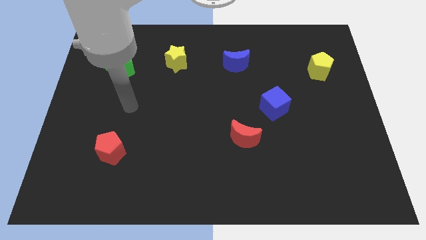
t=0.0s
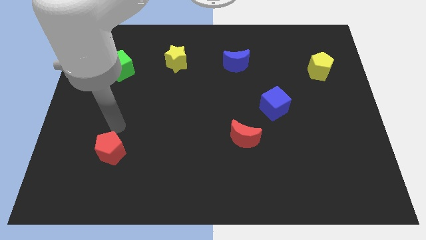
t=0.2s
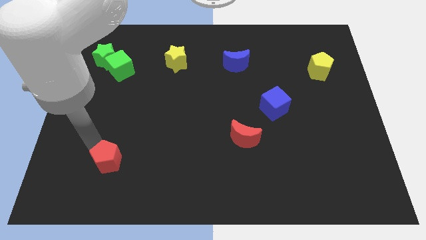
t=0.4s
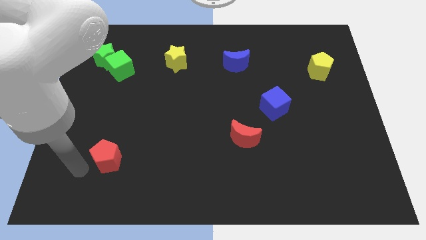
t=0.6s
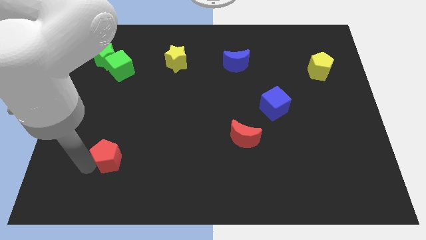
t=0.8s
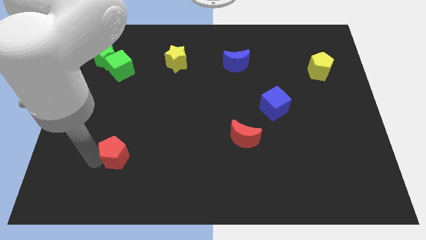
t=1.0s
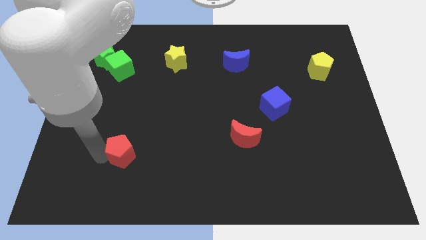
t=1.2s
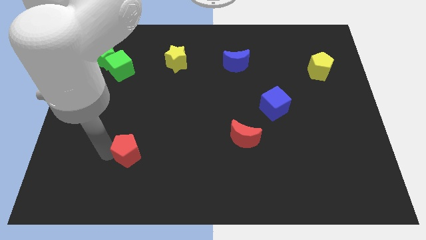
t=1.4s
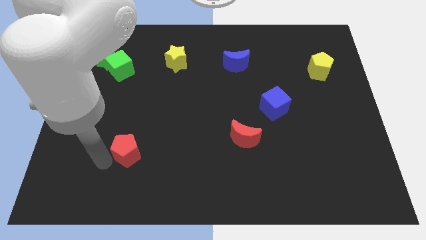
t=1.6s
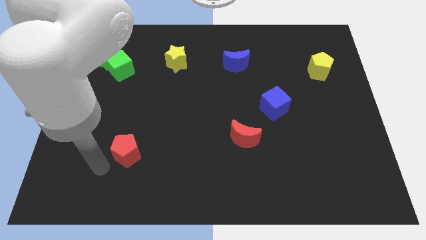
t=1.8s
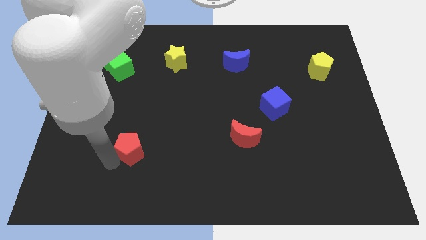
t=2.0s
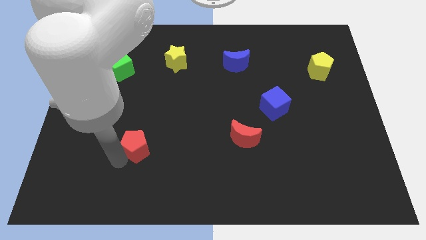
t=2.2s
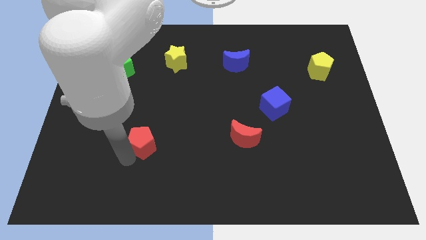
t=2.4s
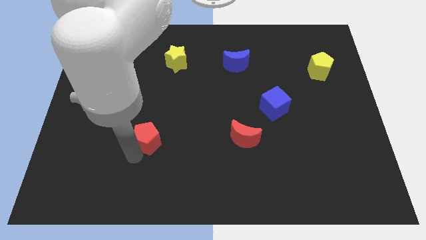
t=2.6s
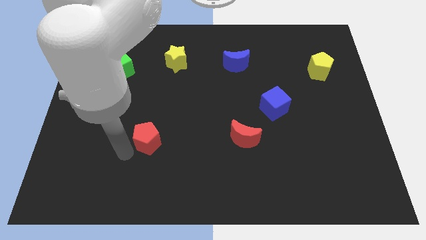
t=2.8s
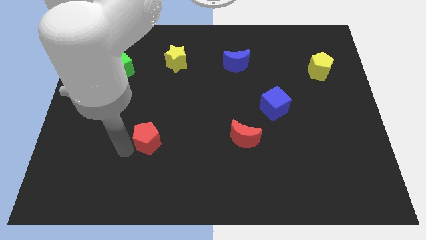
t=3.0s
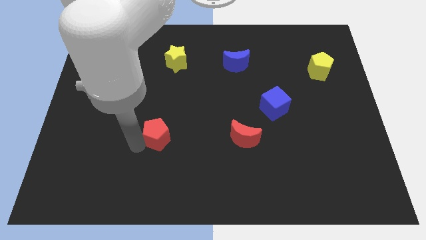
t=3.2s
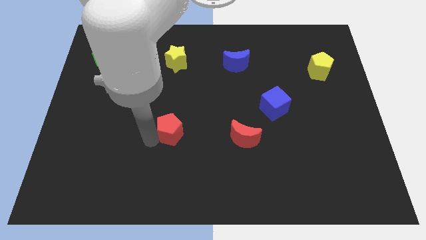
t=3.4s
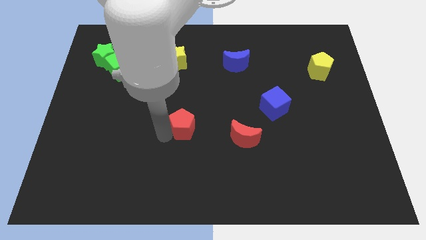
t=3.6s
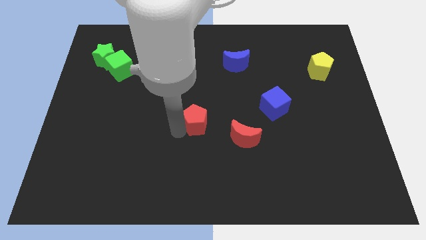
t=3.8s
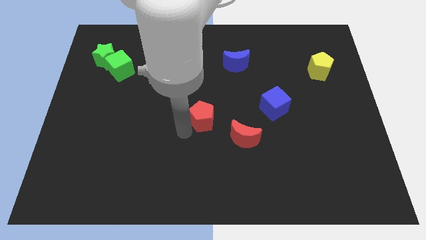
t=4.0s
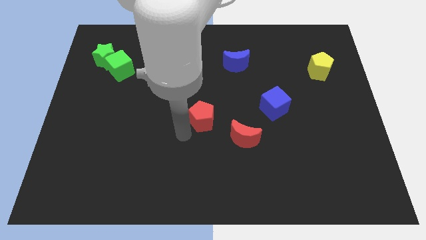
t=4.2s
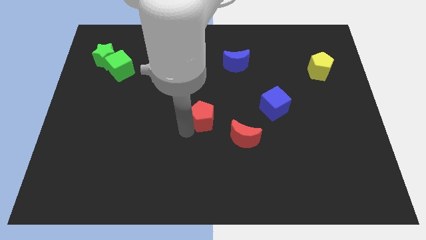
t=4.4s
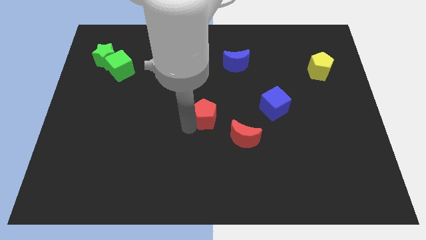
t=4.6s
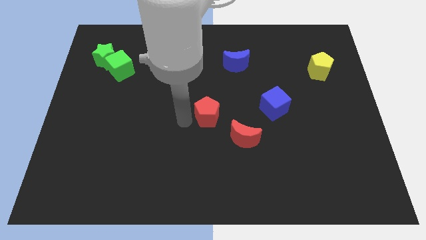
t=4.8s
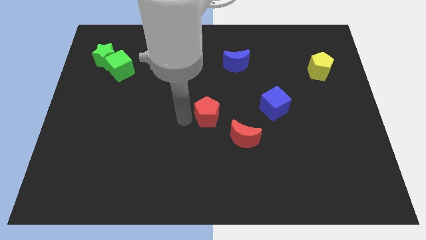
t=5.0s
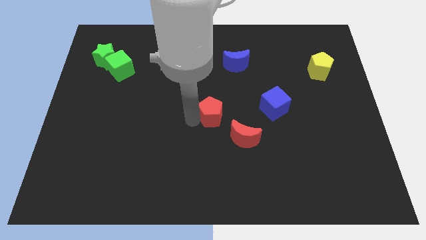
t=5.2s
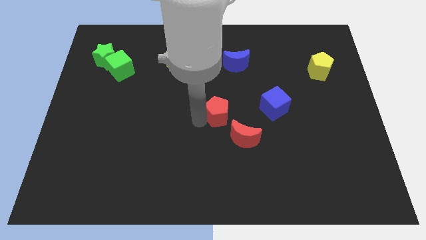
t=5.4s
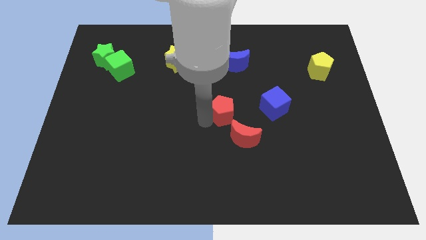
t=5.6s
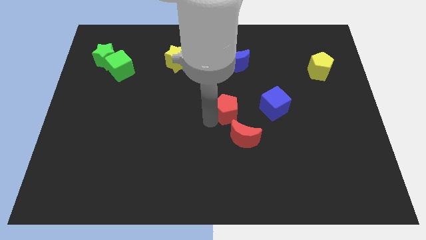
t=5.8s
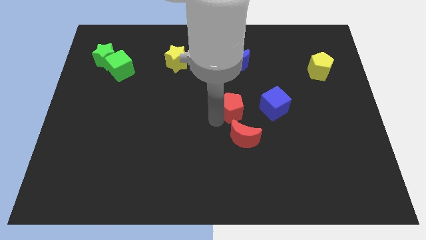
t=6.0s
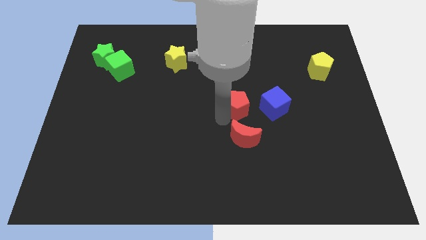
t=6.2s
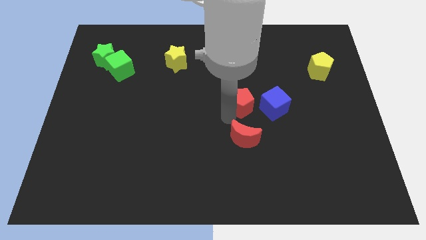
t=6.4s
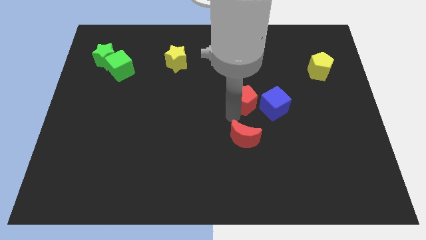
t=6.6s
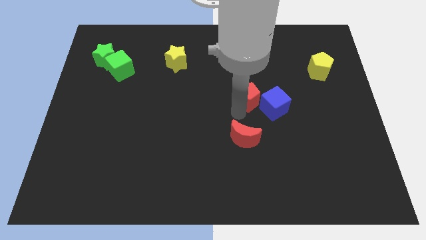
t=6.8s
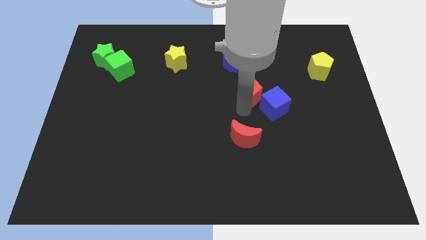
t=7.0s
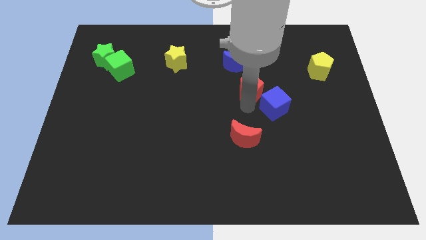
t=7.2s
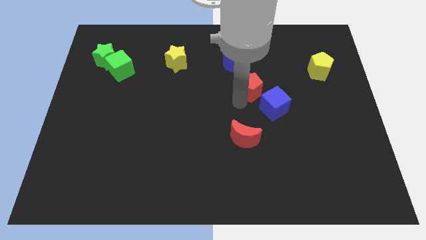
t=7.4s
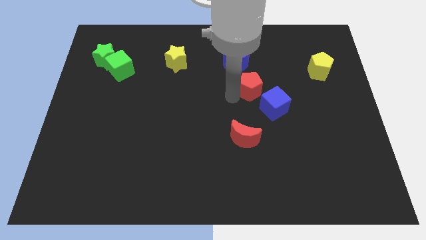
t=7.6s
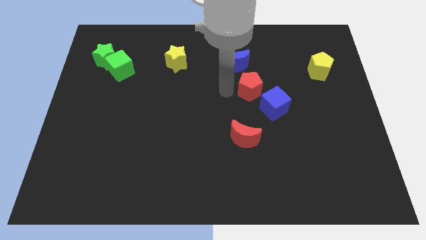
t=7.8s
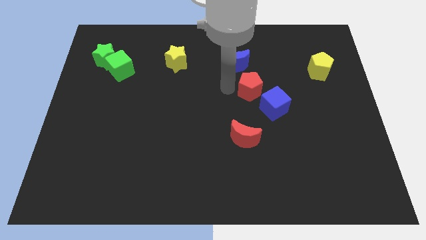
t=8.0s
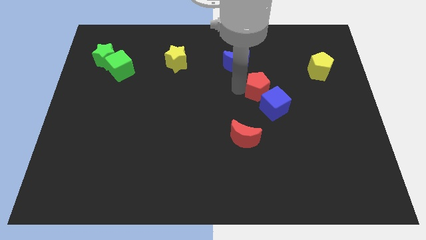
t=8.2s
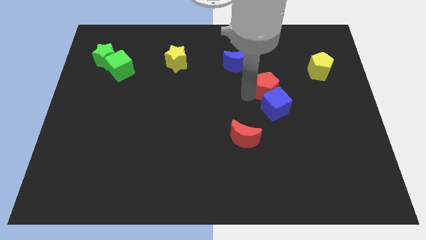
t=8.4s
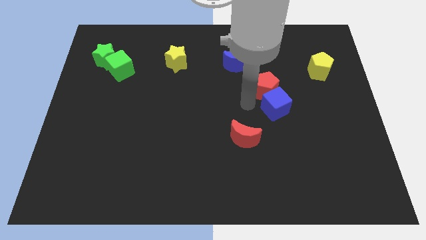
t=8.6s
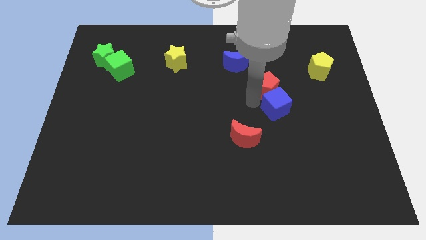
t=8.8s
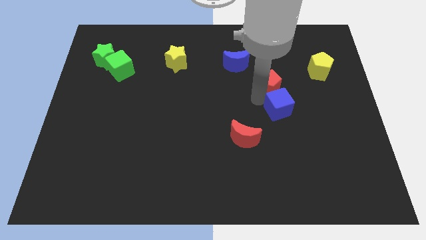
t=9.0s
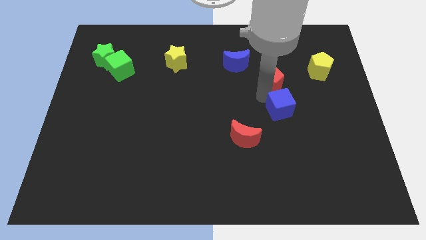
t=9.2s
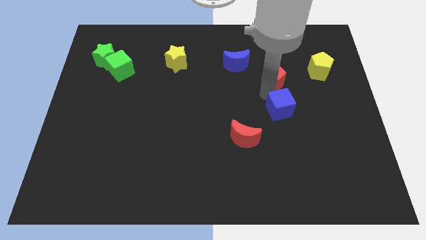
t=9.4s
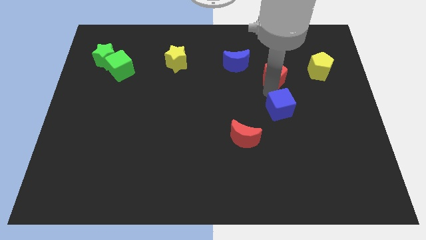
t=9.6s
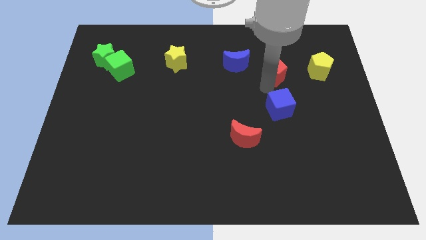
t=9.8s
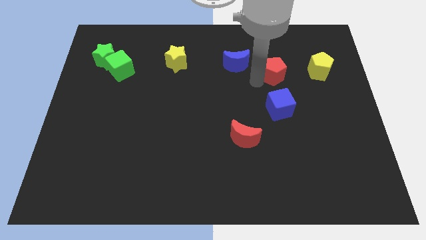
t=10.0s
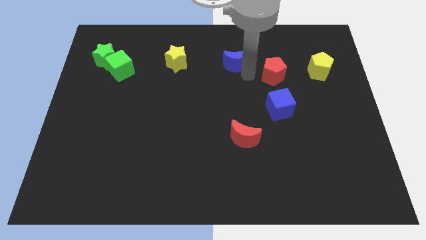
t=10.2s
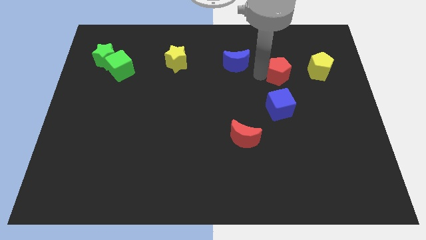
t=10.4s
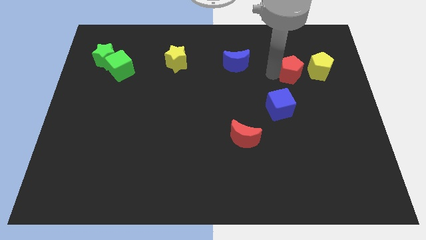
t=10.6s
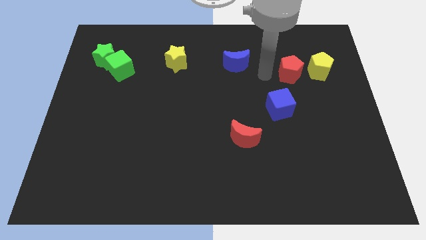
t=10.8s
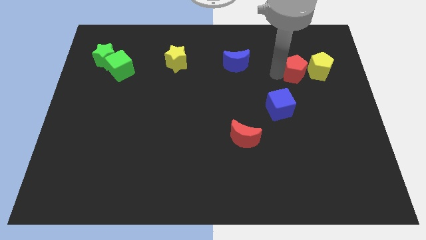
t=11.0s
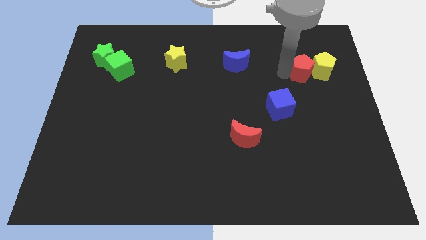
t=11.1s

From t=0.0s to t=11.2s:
move the red pentagon close to the yellow pentagon

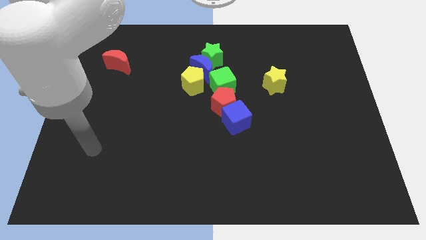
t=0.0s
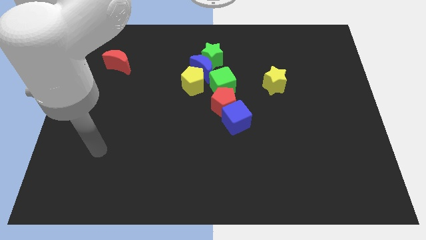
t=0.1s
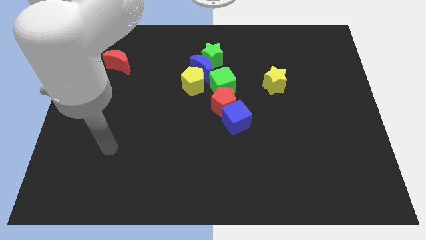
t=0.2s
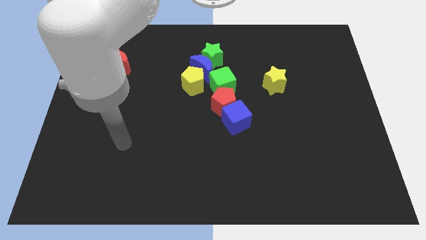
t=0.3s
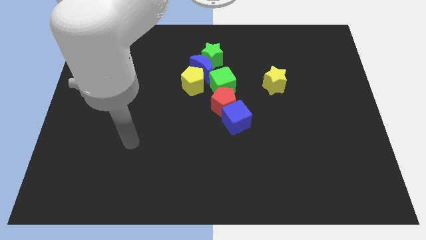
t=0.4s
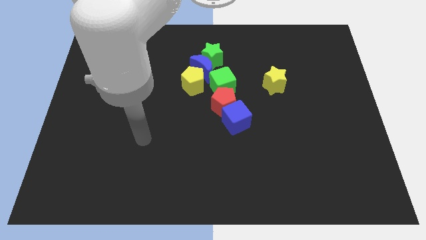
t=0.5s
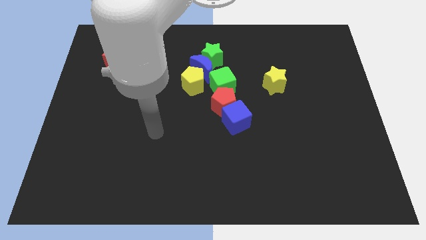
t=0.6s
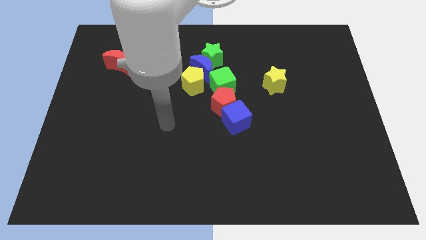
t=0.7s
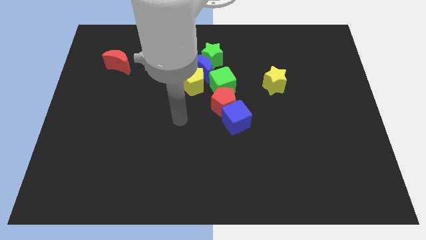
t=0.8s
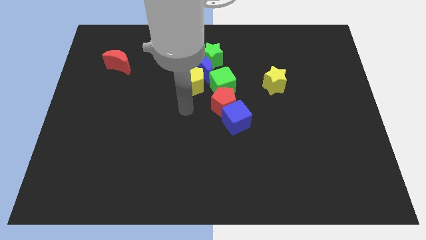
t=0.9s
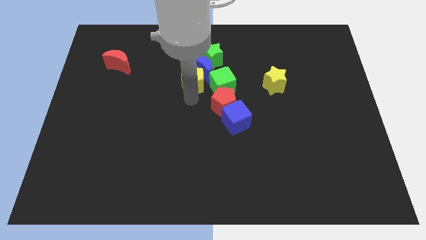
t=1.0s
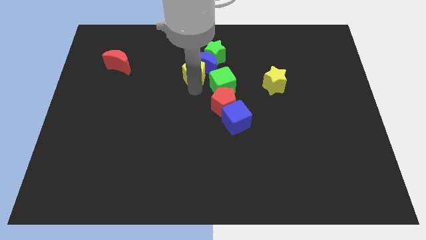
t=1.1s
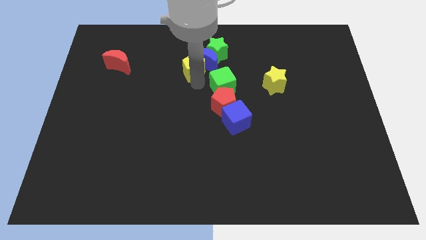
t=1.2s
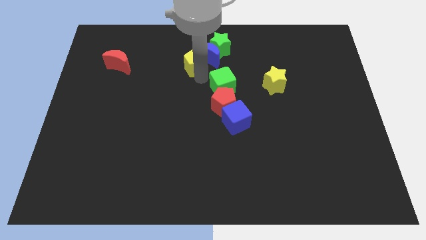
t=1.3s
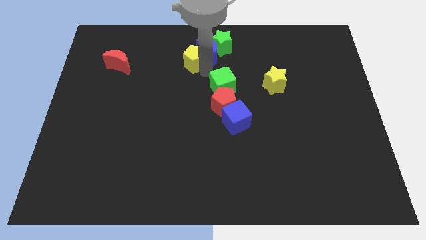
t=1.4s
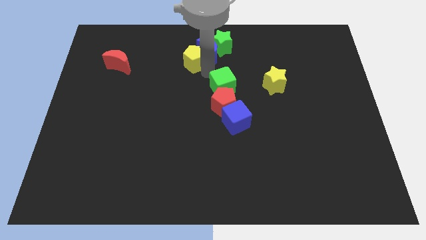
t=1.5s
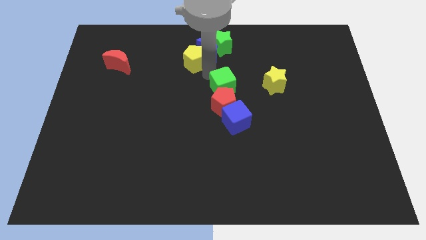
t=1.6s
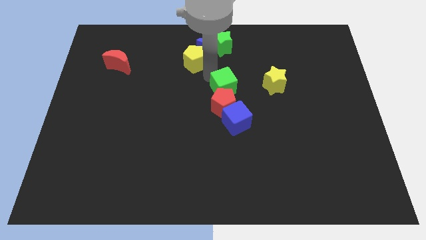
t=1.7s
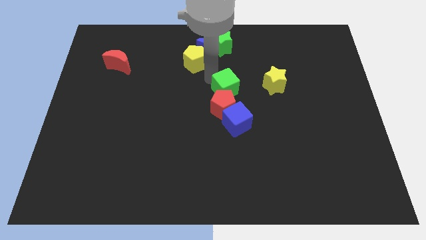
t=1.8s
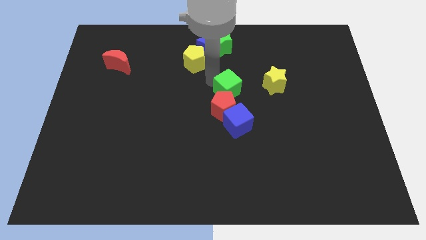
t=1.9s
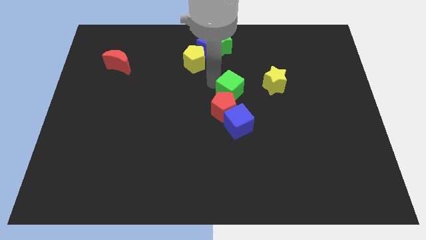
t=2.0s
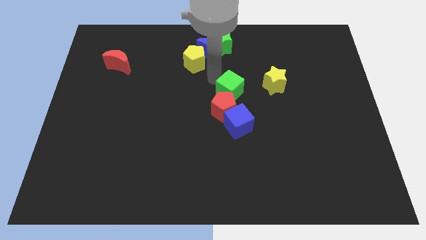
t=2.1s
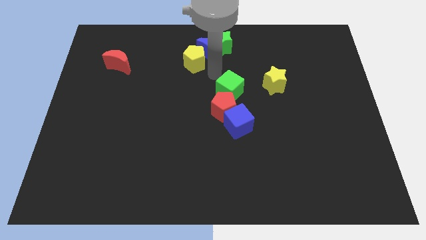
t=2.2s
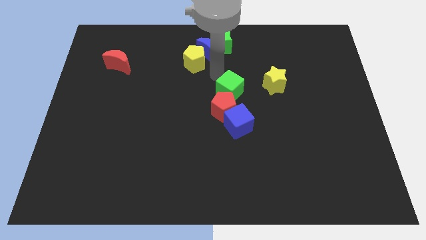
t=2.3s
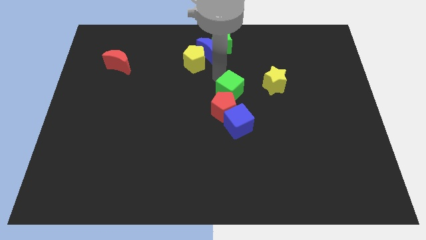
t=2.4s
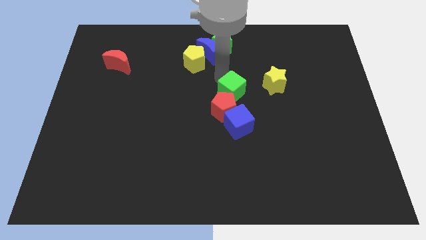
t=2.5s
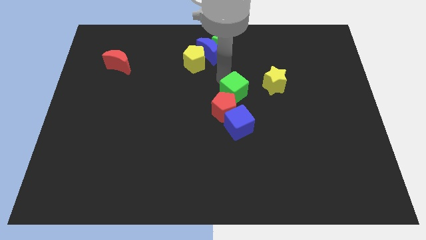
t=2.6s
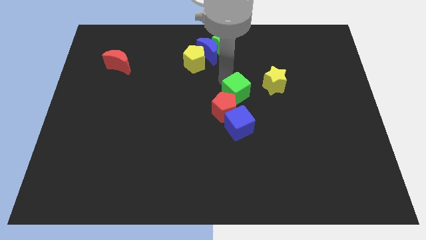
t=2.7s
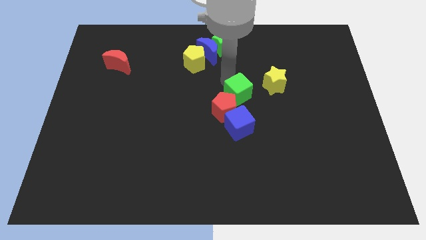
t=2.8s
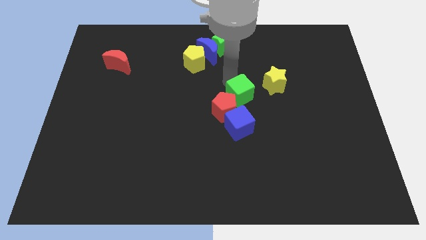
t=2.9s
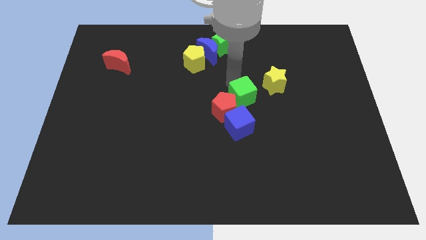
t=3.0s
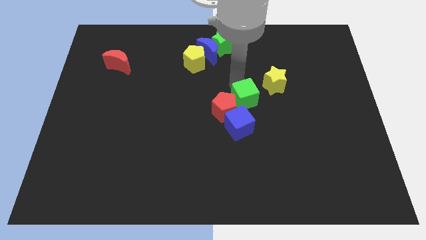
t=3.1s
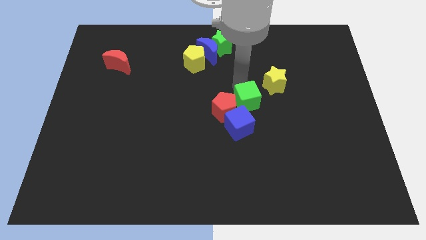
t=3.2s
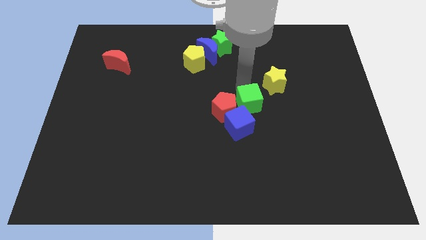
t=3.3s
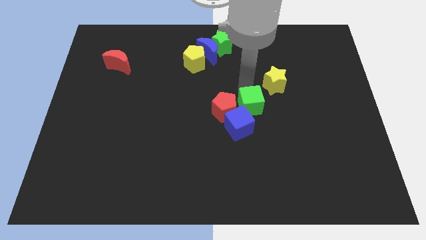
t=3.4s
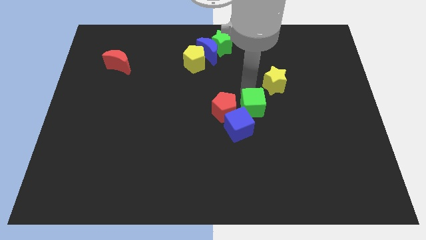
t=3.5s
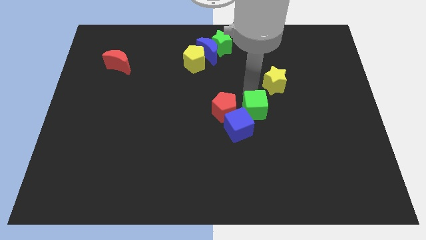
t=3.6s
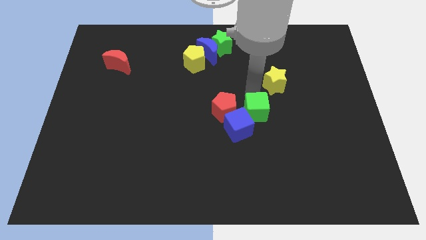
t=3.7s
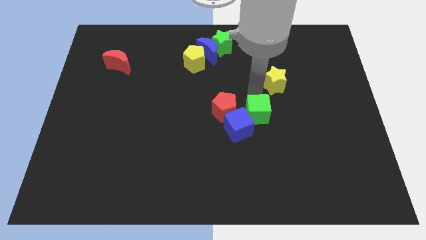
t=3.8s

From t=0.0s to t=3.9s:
push the green cube close to the blue cube
